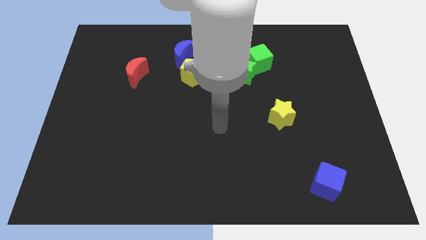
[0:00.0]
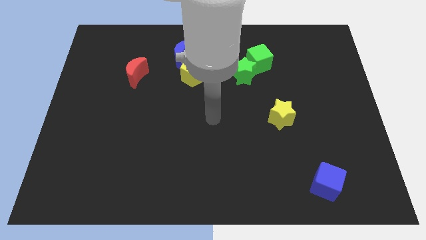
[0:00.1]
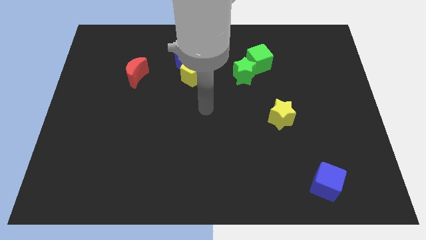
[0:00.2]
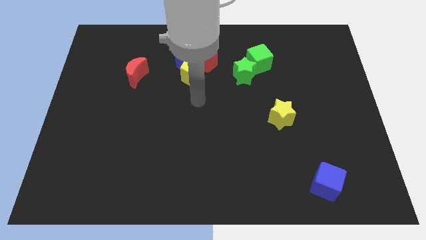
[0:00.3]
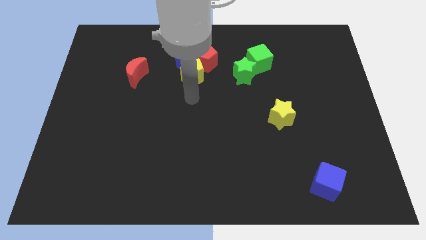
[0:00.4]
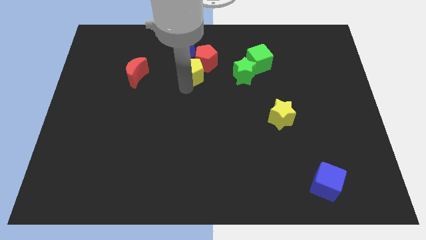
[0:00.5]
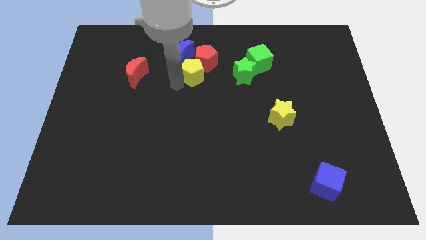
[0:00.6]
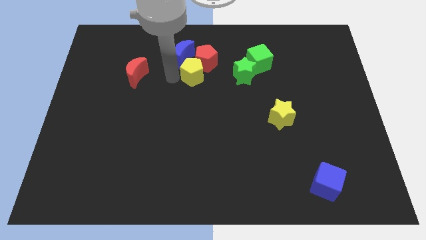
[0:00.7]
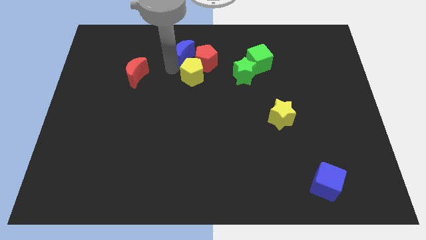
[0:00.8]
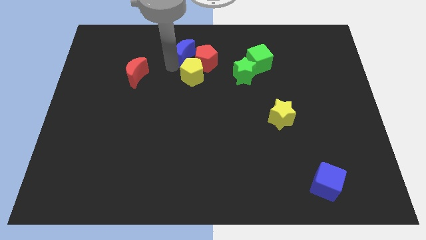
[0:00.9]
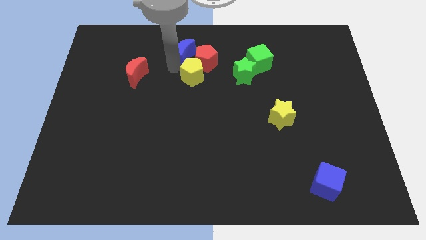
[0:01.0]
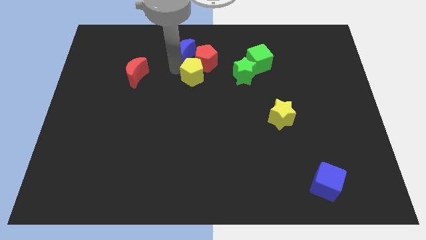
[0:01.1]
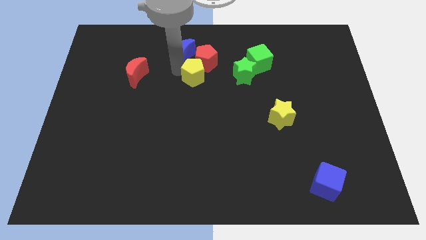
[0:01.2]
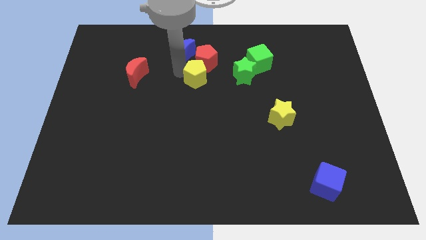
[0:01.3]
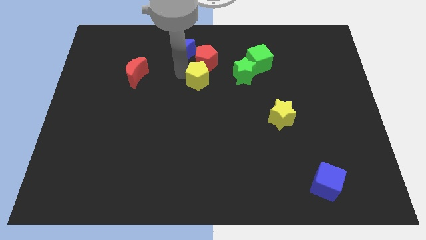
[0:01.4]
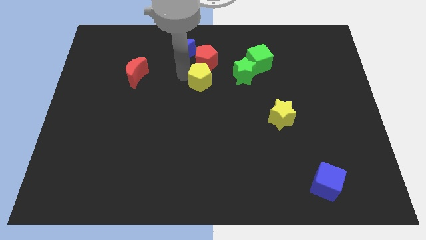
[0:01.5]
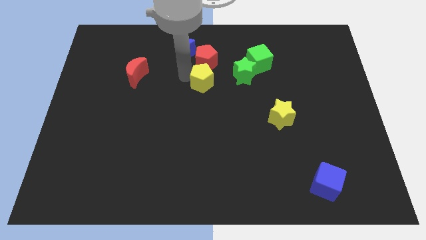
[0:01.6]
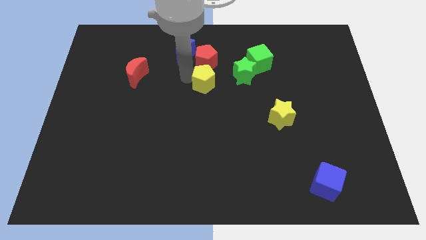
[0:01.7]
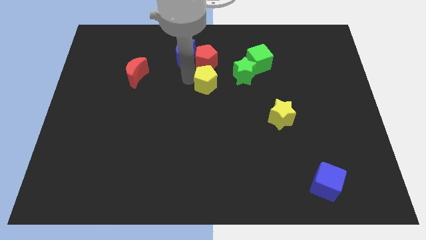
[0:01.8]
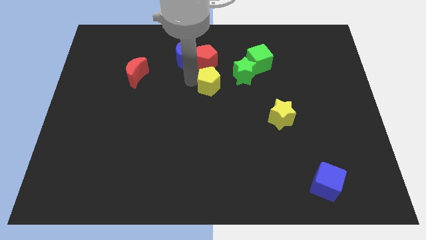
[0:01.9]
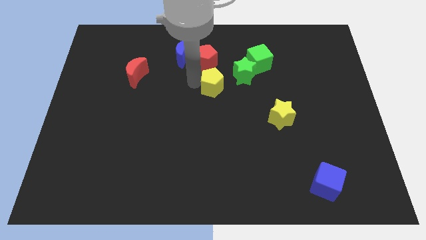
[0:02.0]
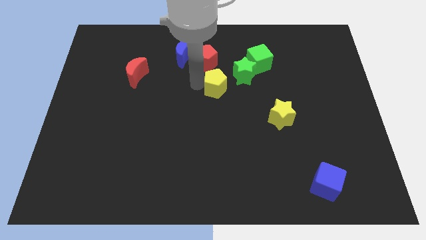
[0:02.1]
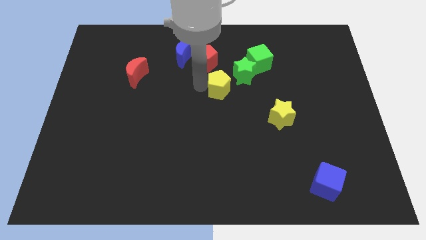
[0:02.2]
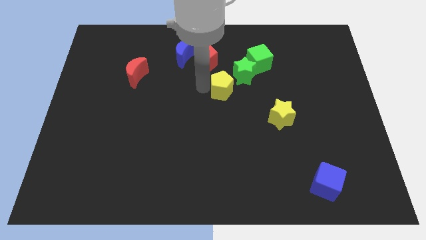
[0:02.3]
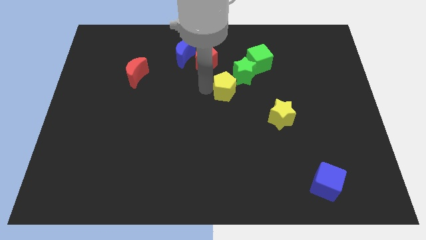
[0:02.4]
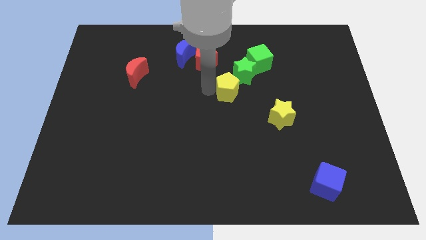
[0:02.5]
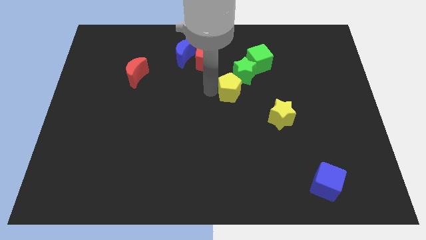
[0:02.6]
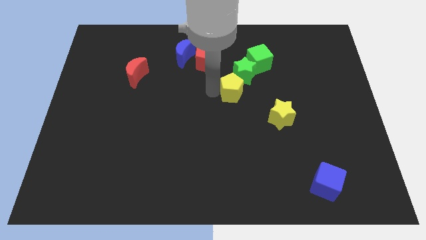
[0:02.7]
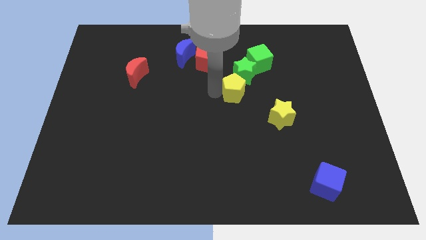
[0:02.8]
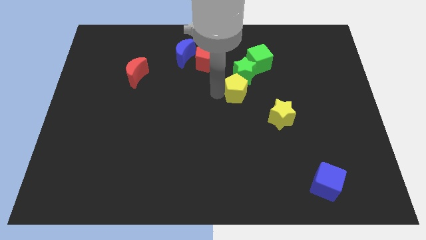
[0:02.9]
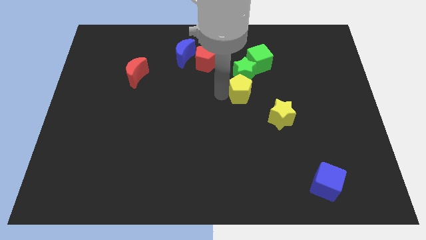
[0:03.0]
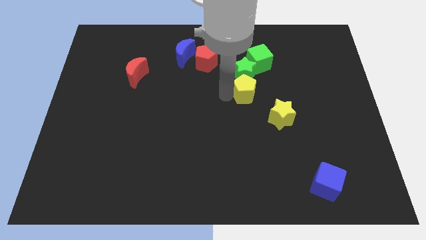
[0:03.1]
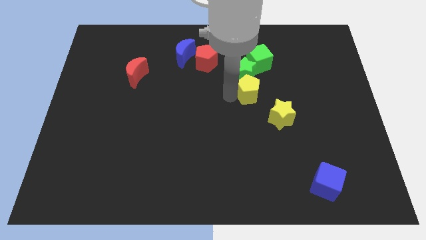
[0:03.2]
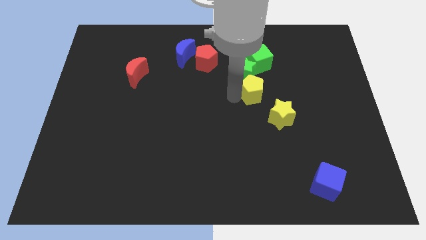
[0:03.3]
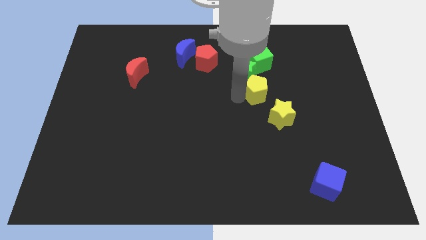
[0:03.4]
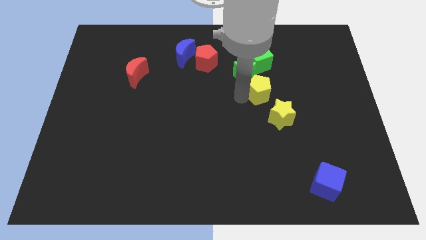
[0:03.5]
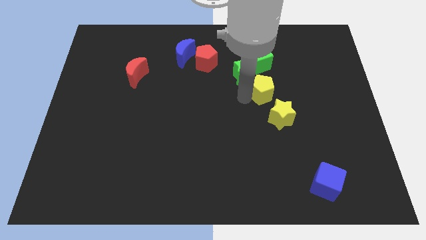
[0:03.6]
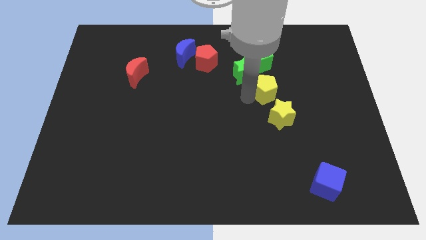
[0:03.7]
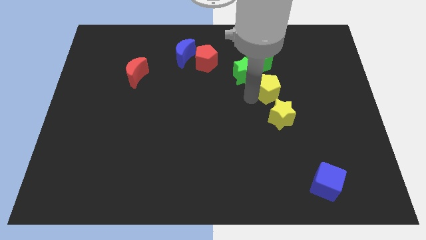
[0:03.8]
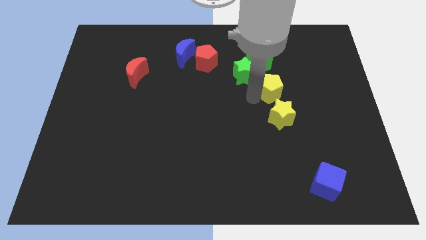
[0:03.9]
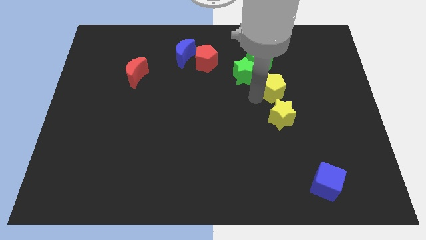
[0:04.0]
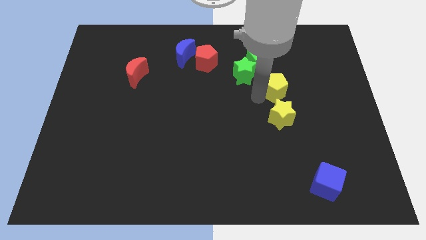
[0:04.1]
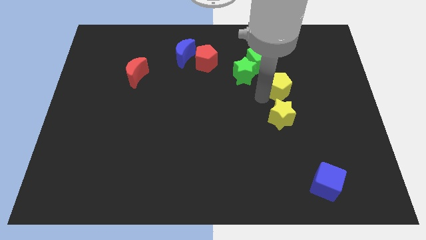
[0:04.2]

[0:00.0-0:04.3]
push the yellow pentagon to the right

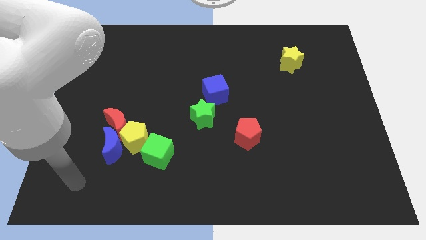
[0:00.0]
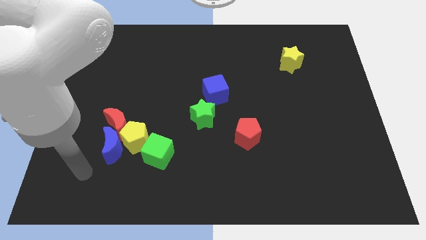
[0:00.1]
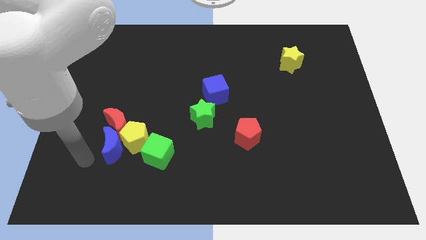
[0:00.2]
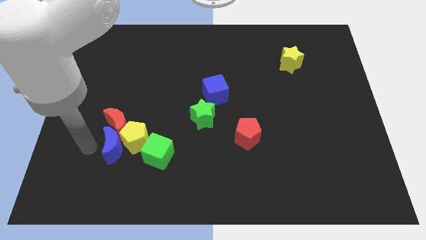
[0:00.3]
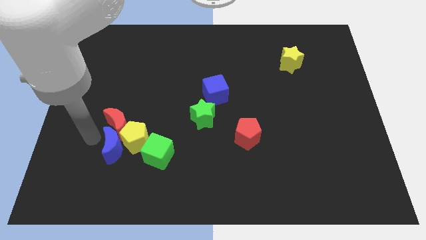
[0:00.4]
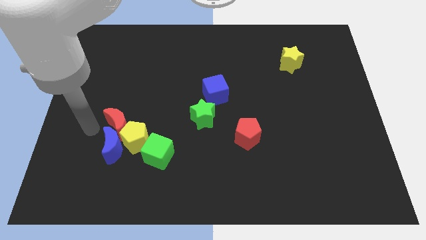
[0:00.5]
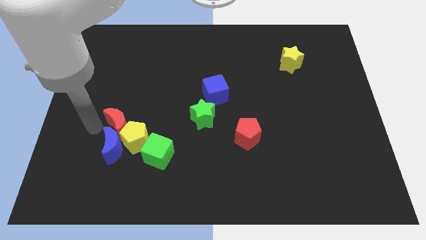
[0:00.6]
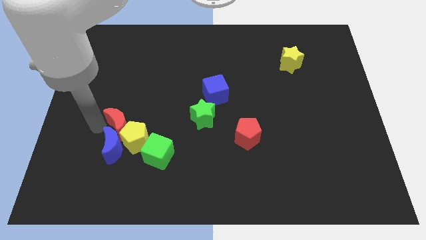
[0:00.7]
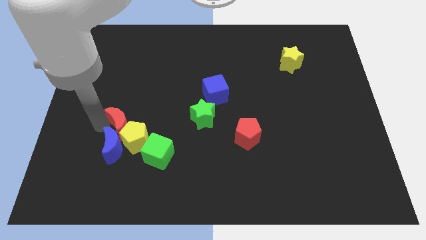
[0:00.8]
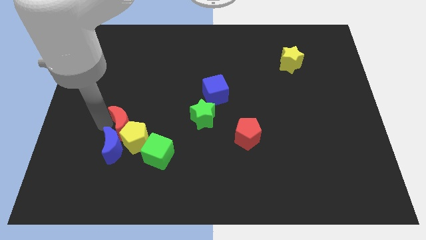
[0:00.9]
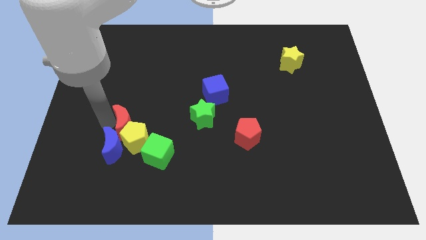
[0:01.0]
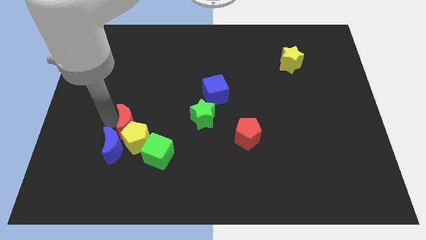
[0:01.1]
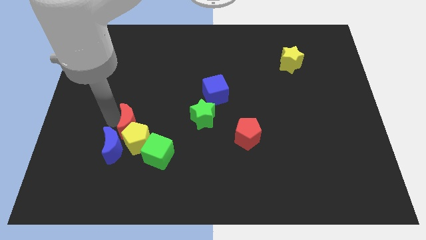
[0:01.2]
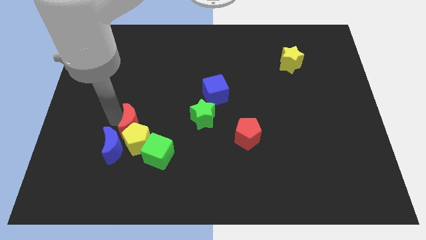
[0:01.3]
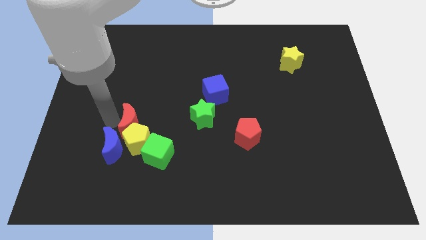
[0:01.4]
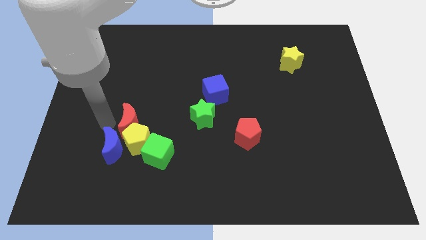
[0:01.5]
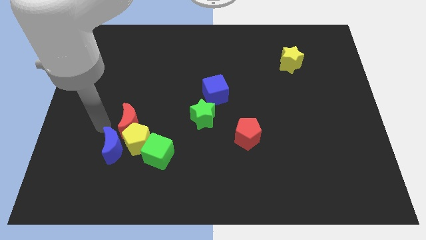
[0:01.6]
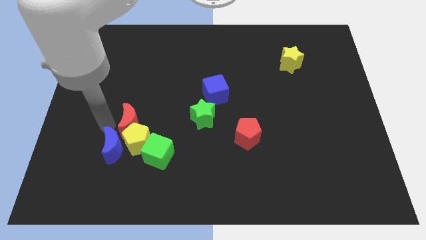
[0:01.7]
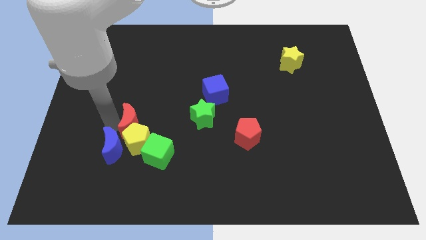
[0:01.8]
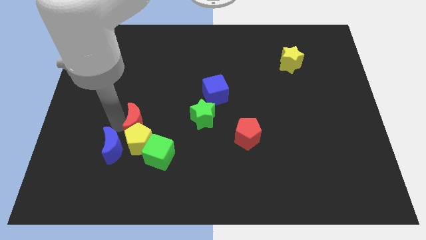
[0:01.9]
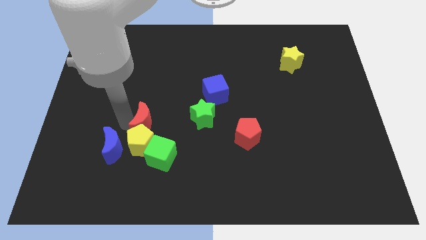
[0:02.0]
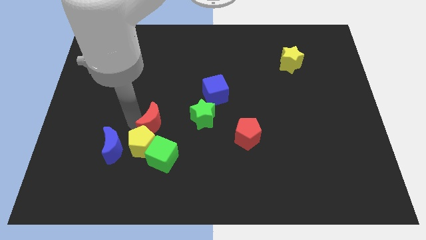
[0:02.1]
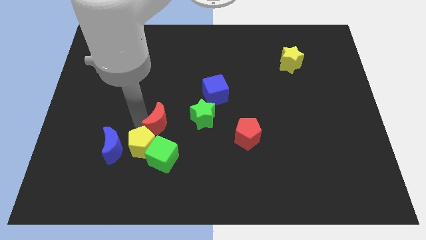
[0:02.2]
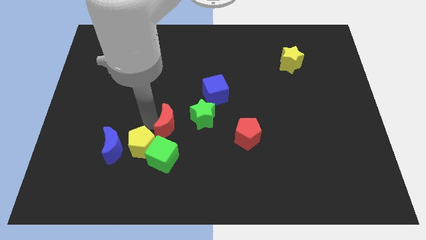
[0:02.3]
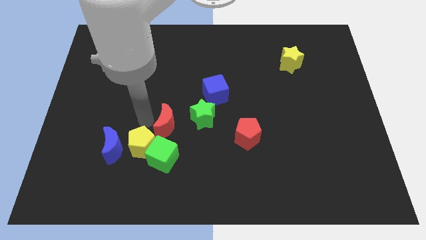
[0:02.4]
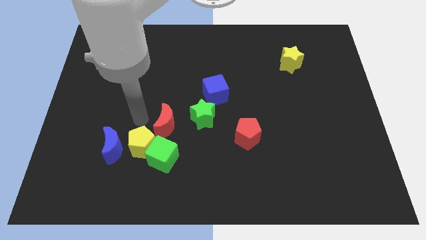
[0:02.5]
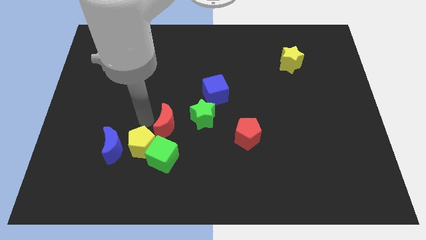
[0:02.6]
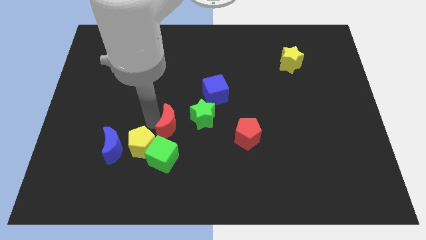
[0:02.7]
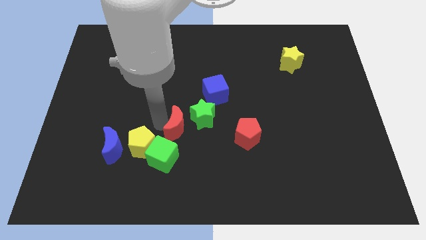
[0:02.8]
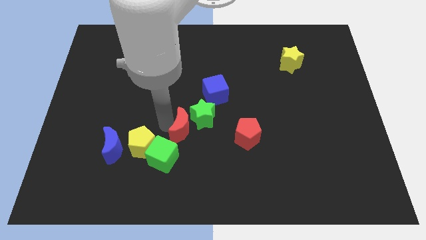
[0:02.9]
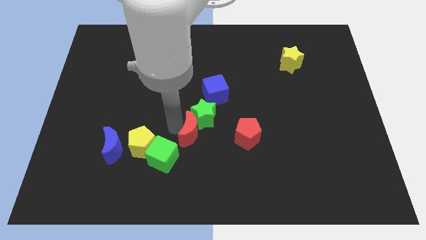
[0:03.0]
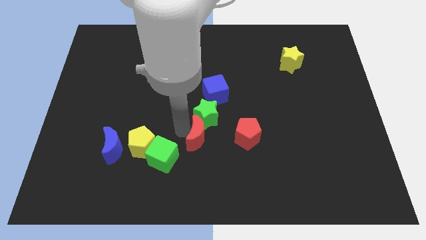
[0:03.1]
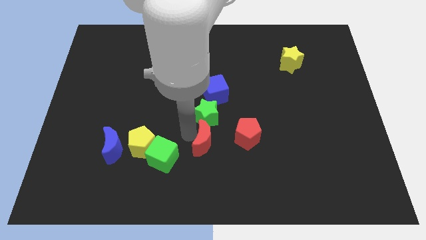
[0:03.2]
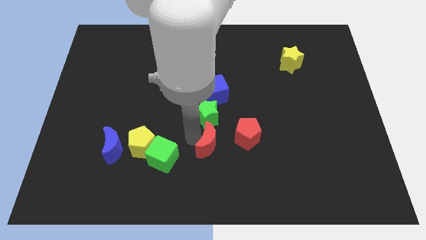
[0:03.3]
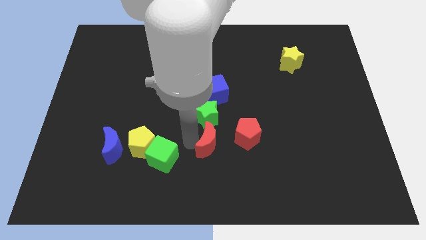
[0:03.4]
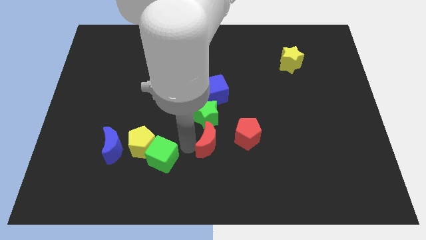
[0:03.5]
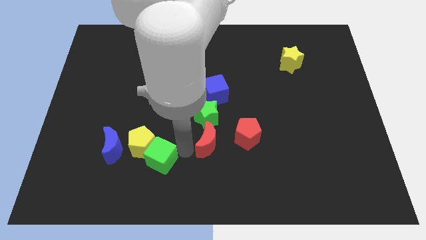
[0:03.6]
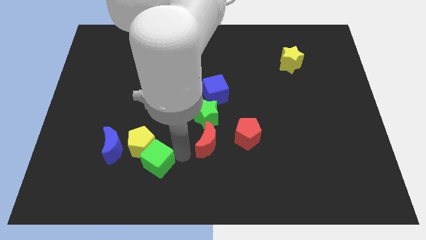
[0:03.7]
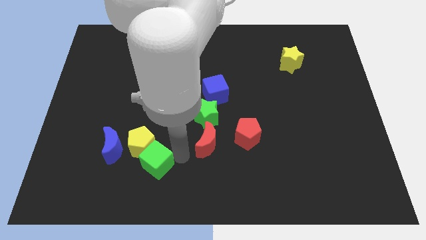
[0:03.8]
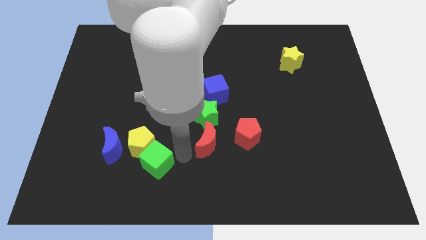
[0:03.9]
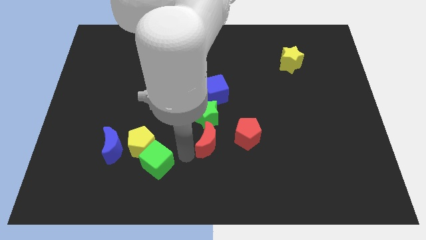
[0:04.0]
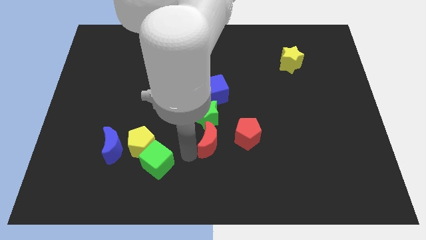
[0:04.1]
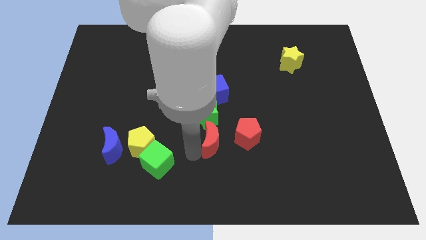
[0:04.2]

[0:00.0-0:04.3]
slide the red moon right
